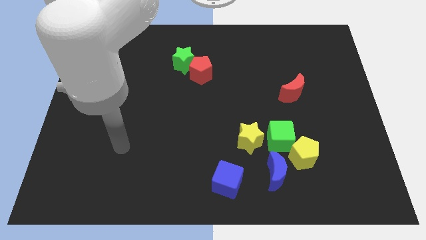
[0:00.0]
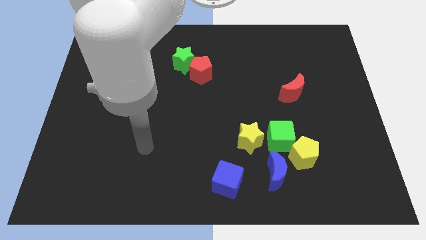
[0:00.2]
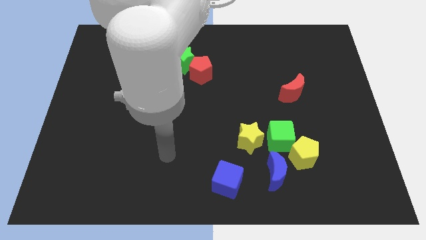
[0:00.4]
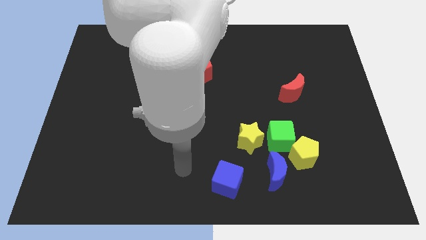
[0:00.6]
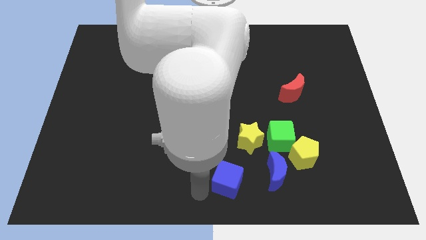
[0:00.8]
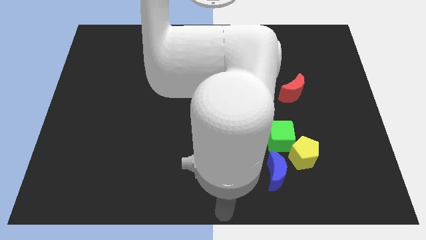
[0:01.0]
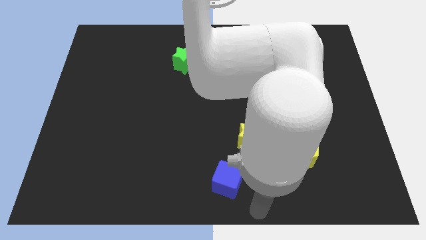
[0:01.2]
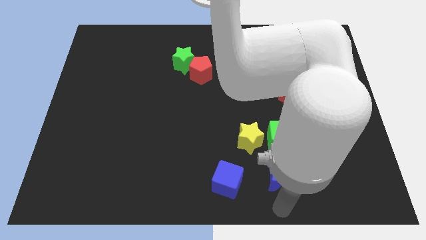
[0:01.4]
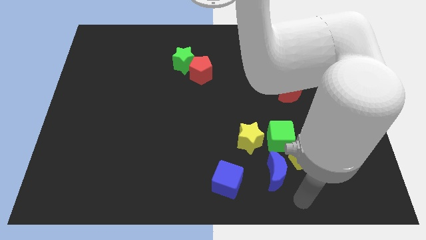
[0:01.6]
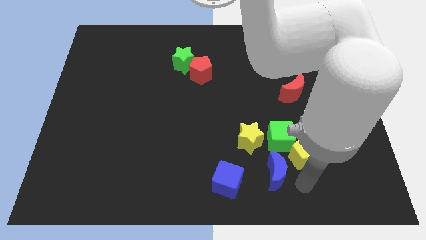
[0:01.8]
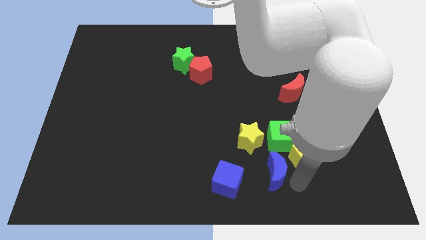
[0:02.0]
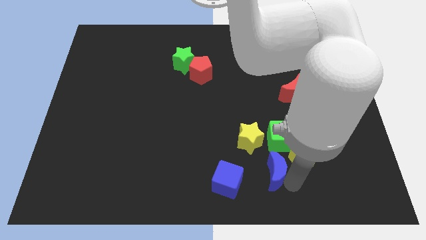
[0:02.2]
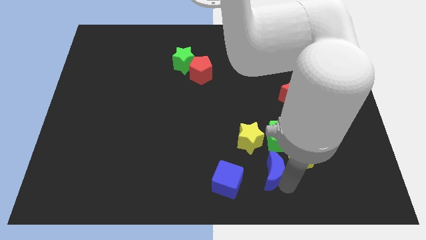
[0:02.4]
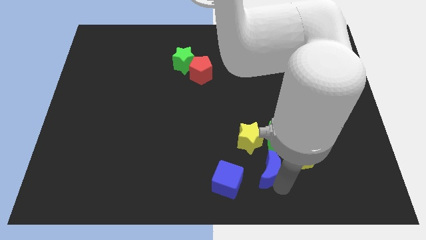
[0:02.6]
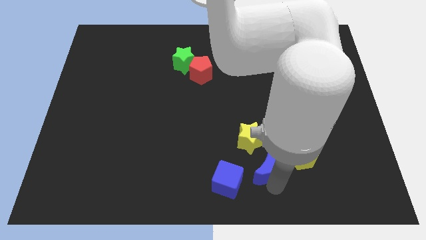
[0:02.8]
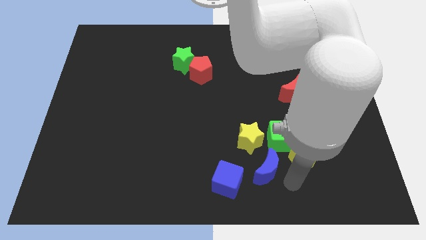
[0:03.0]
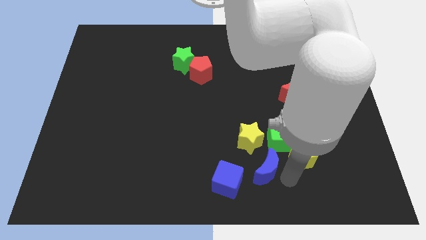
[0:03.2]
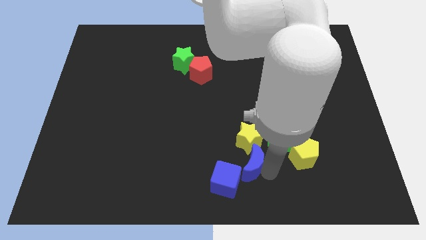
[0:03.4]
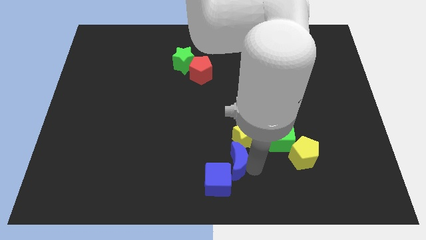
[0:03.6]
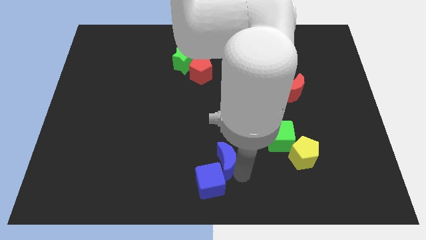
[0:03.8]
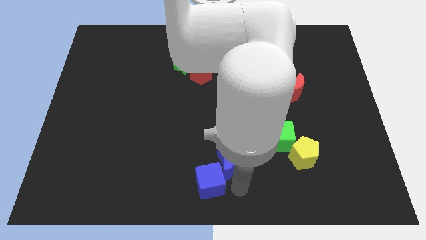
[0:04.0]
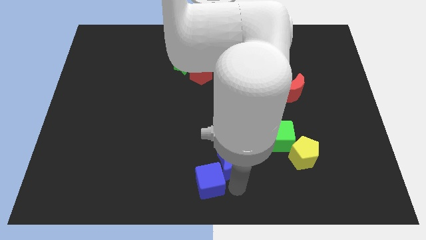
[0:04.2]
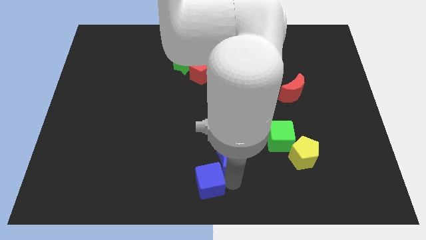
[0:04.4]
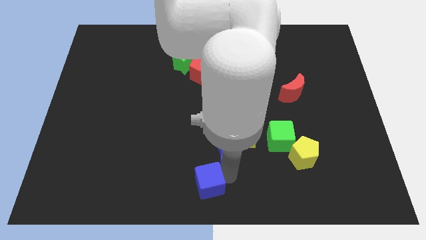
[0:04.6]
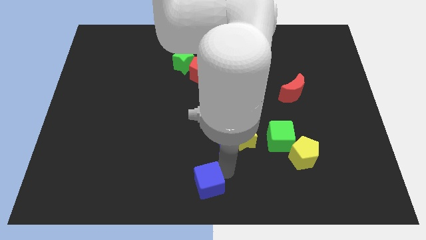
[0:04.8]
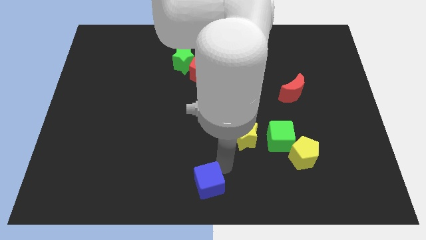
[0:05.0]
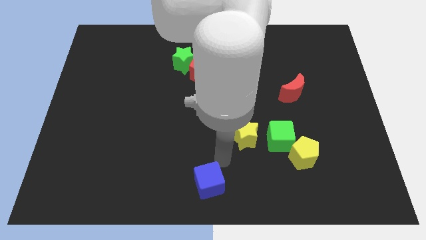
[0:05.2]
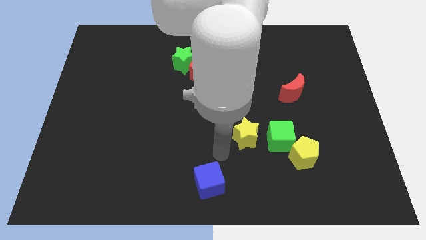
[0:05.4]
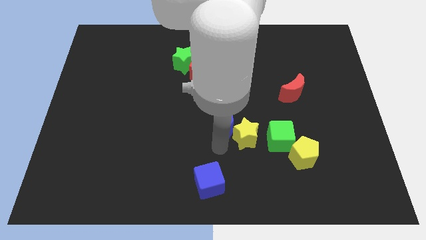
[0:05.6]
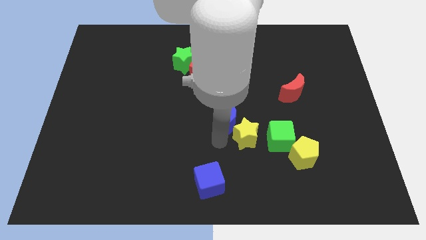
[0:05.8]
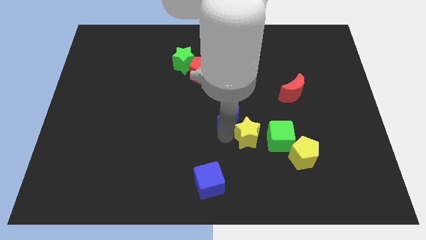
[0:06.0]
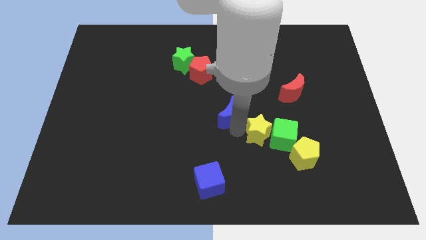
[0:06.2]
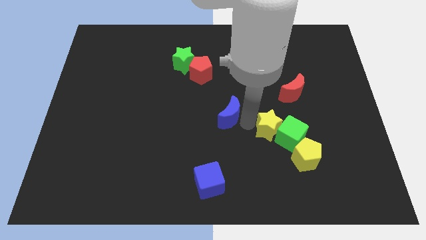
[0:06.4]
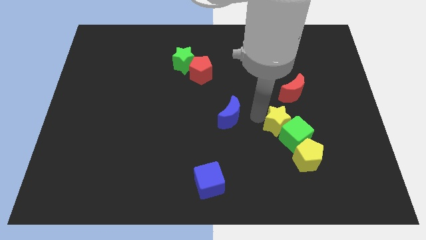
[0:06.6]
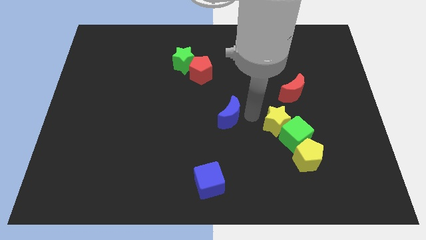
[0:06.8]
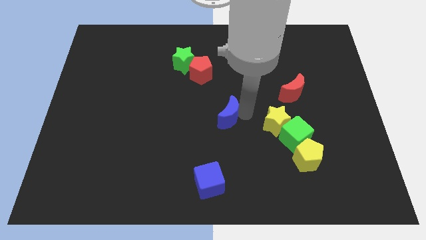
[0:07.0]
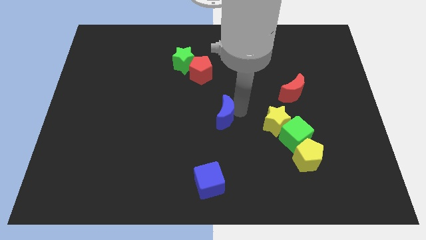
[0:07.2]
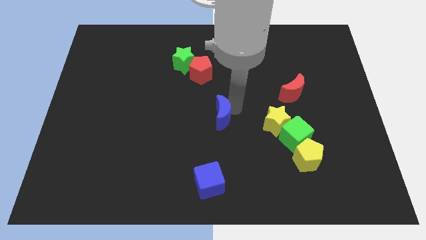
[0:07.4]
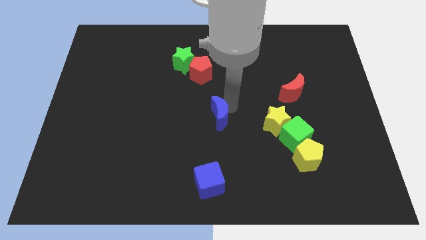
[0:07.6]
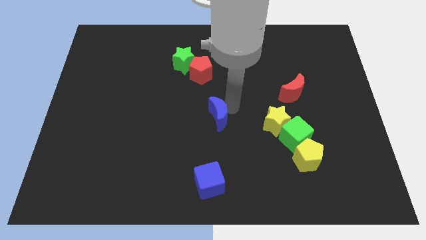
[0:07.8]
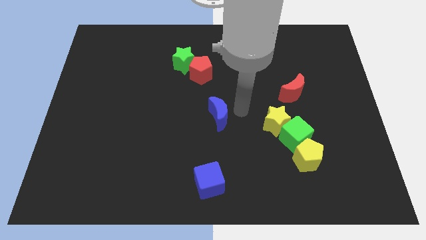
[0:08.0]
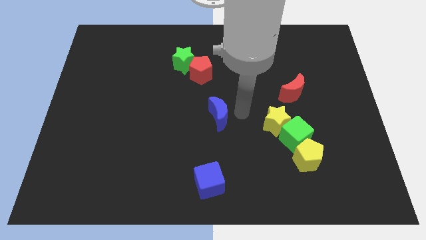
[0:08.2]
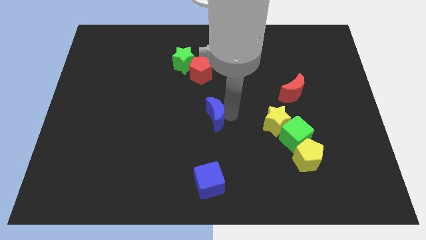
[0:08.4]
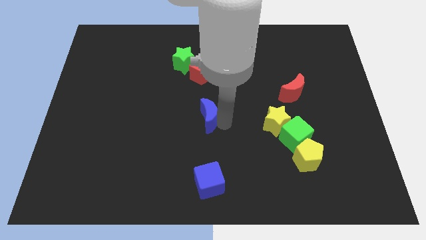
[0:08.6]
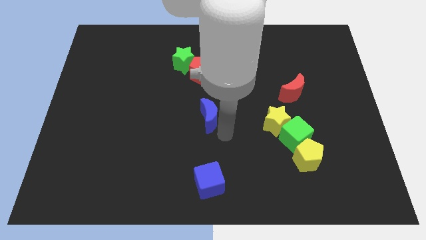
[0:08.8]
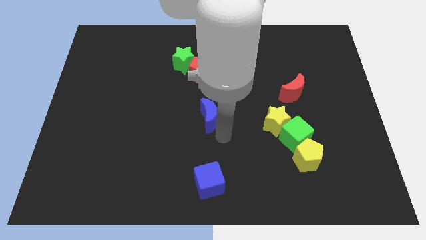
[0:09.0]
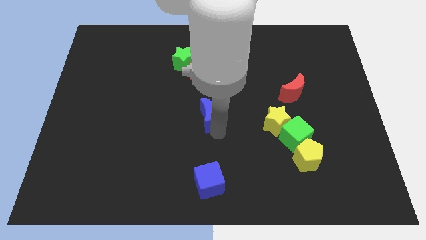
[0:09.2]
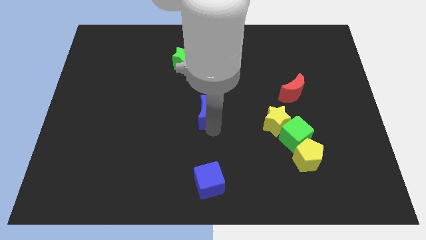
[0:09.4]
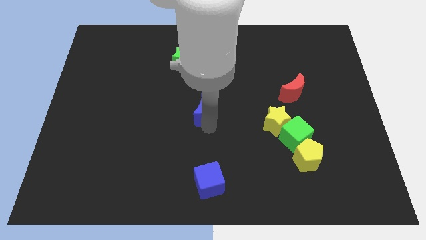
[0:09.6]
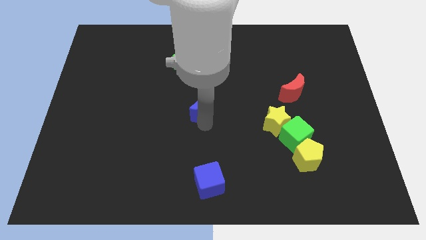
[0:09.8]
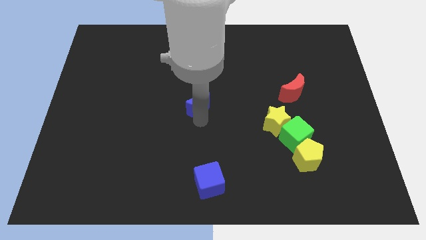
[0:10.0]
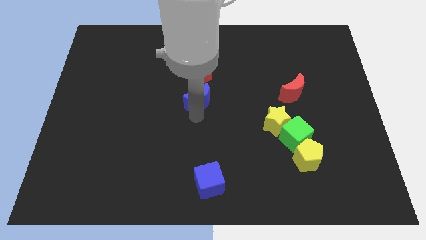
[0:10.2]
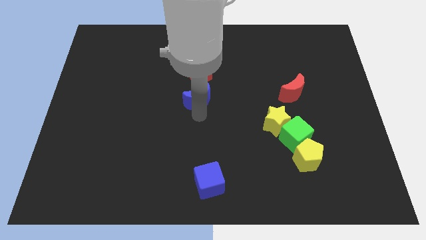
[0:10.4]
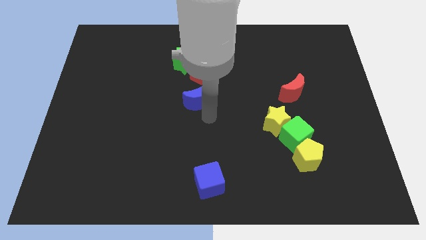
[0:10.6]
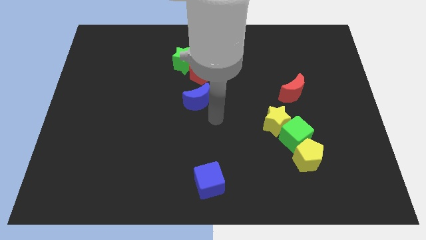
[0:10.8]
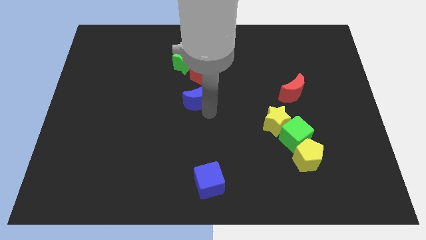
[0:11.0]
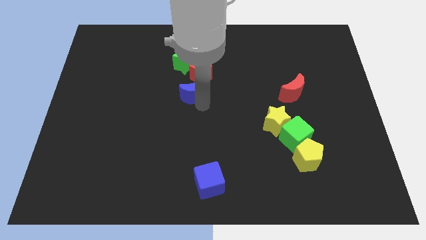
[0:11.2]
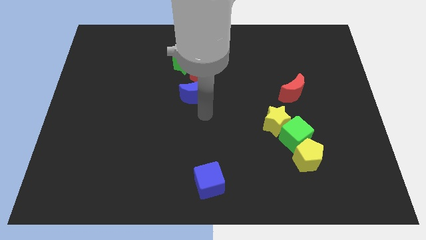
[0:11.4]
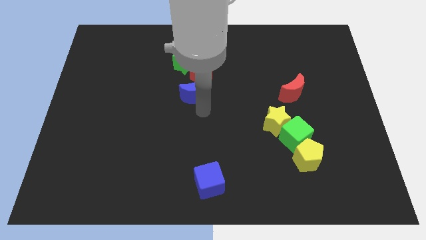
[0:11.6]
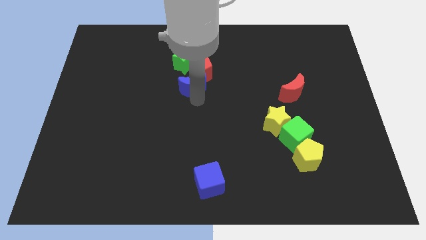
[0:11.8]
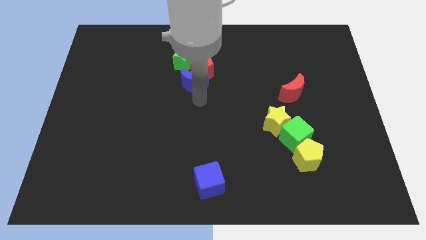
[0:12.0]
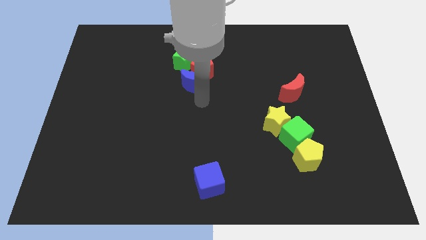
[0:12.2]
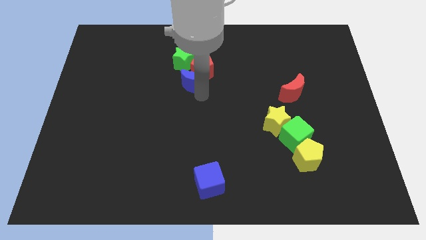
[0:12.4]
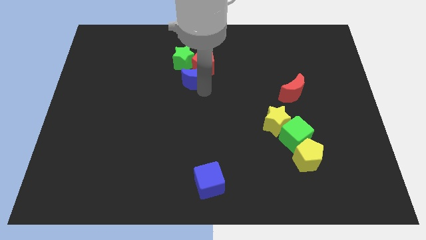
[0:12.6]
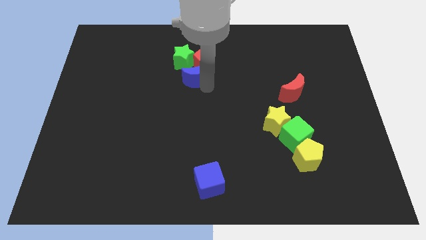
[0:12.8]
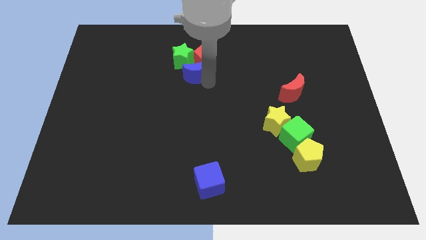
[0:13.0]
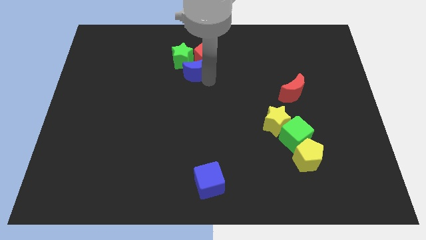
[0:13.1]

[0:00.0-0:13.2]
slide the blue moon towards the green star

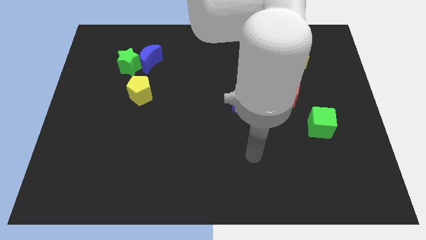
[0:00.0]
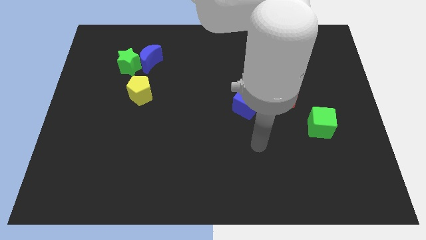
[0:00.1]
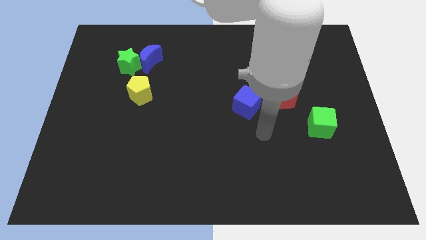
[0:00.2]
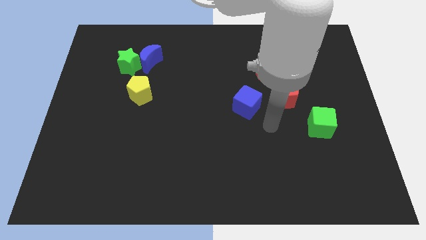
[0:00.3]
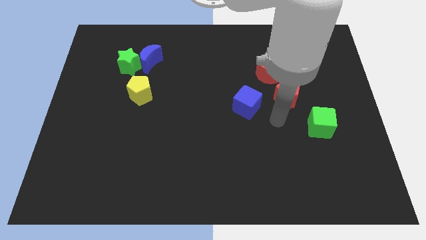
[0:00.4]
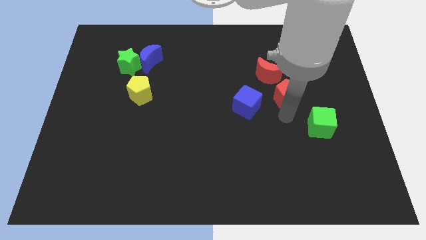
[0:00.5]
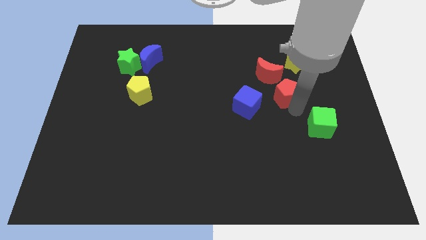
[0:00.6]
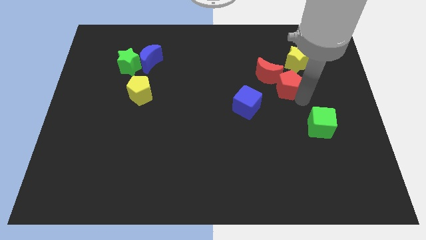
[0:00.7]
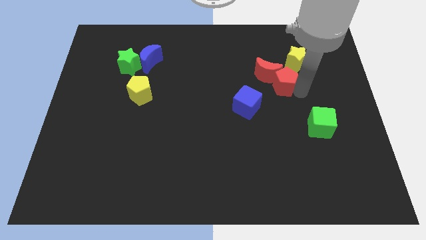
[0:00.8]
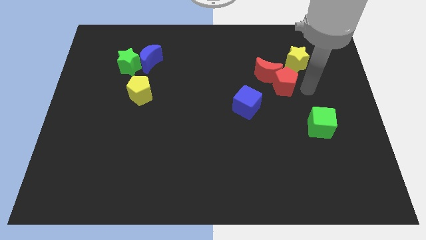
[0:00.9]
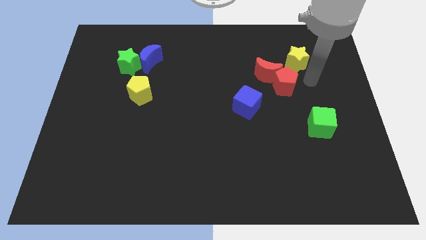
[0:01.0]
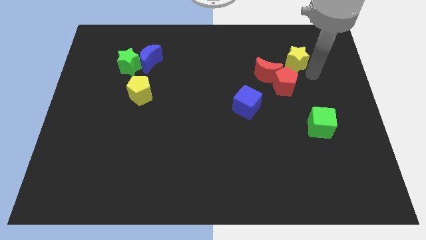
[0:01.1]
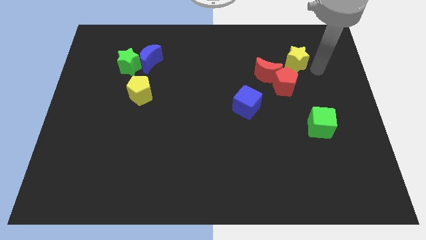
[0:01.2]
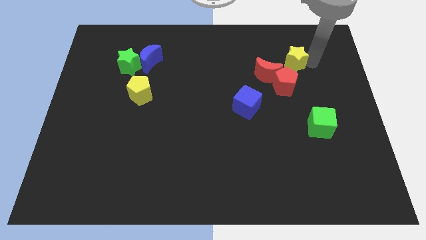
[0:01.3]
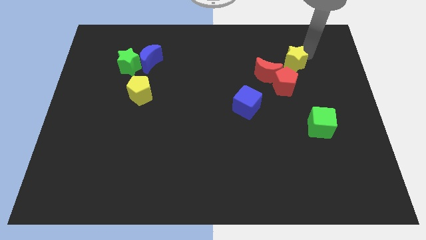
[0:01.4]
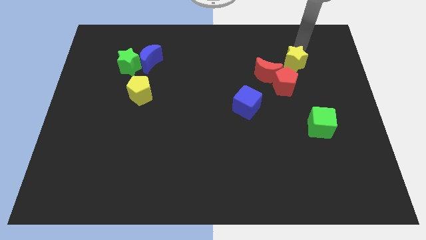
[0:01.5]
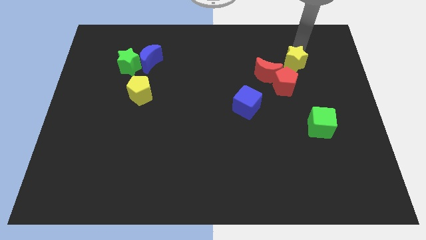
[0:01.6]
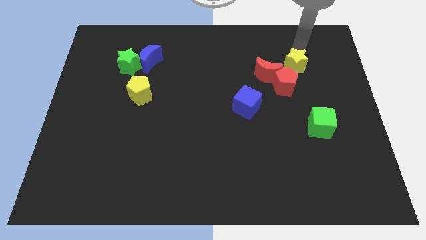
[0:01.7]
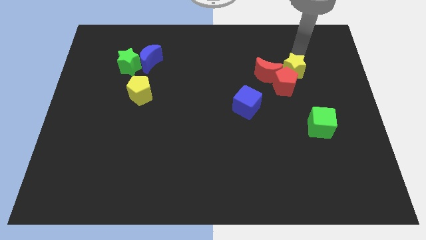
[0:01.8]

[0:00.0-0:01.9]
put the yellow star next to the red pentagon
